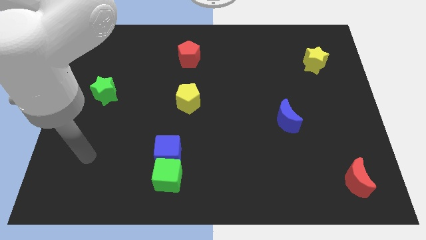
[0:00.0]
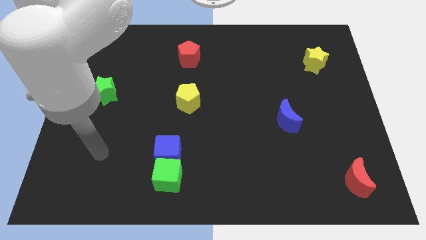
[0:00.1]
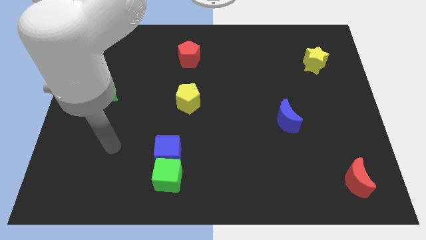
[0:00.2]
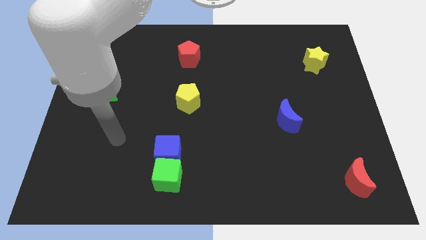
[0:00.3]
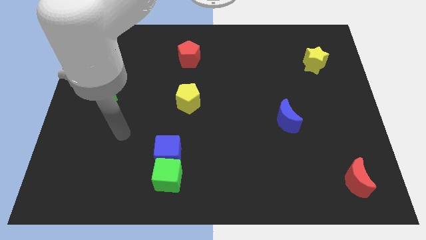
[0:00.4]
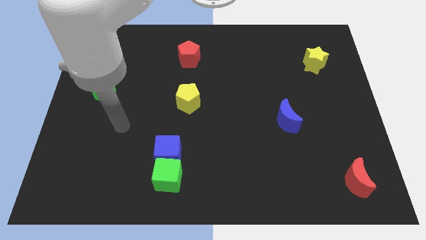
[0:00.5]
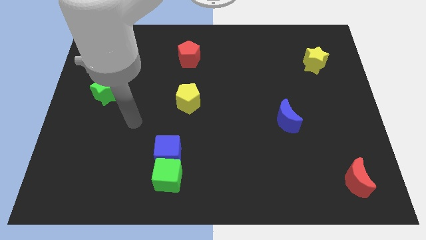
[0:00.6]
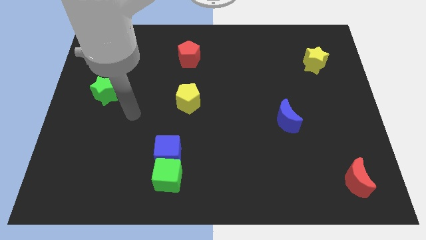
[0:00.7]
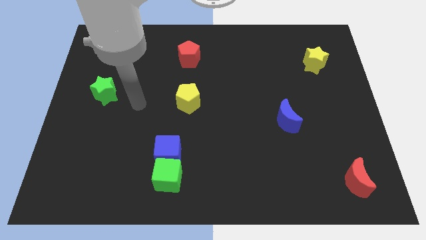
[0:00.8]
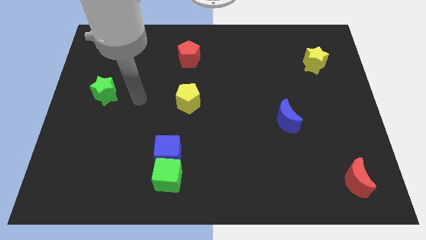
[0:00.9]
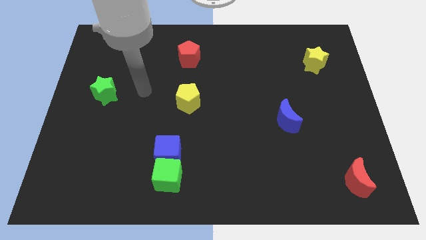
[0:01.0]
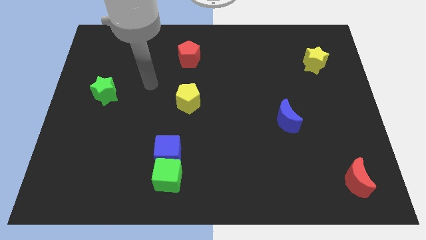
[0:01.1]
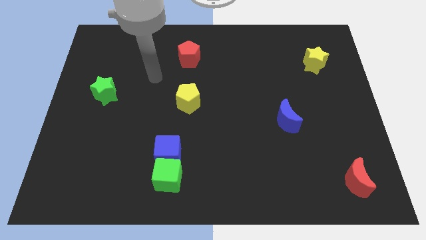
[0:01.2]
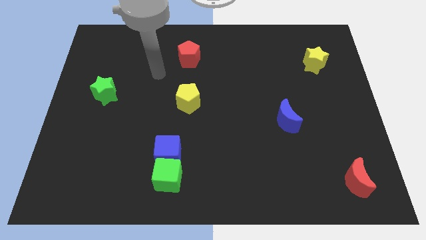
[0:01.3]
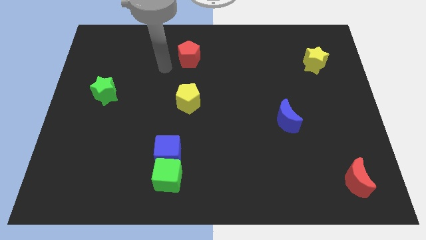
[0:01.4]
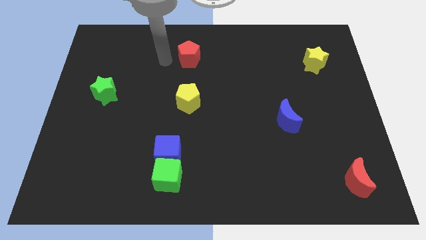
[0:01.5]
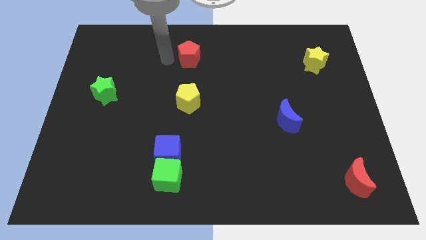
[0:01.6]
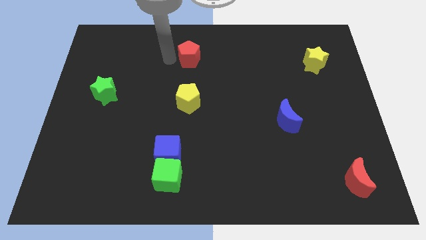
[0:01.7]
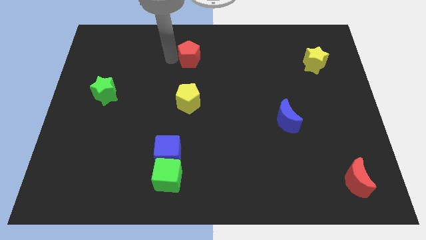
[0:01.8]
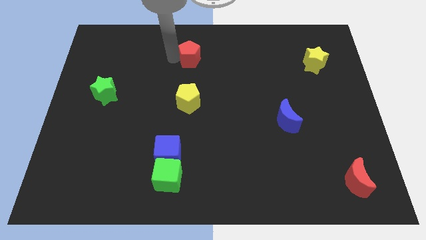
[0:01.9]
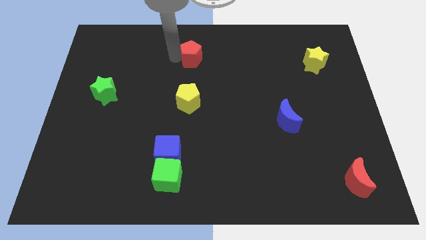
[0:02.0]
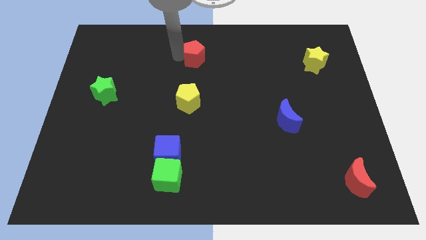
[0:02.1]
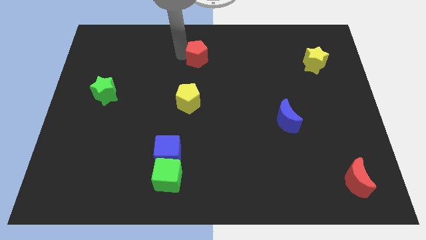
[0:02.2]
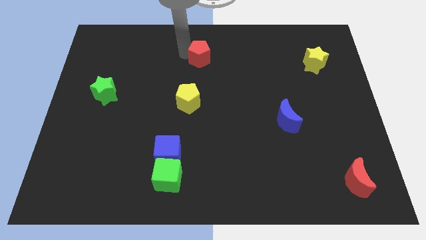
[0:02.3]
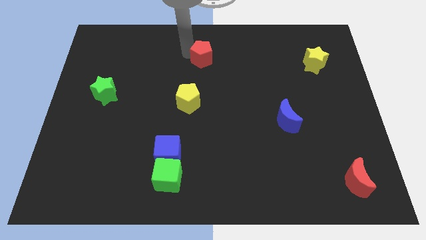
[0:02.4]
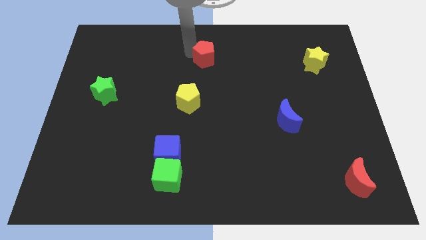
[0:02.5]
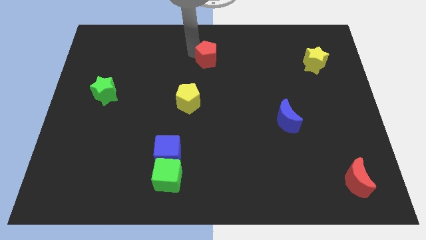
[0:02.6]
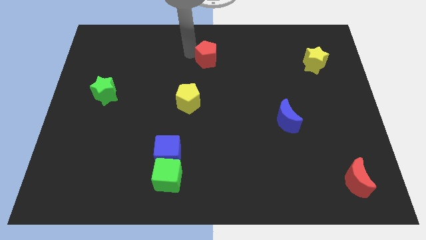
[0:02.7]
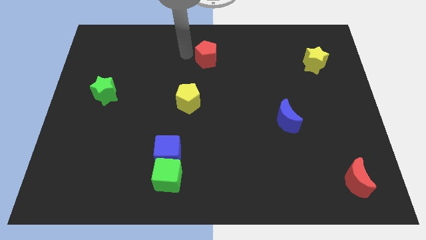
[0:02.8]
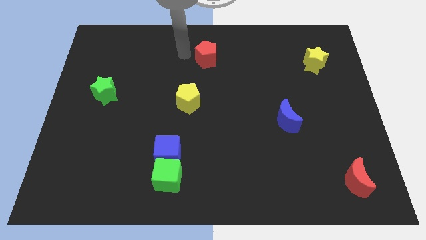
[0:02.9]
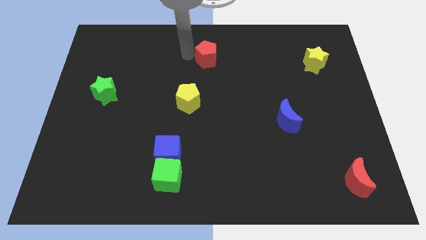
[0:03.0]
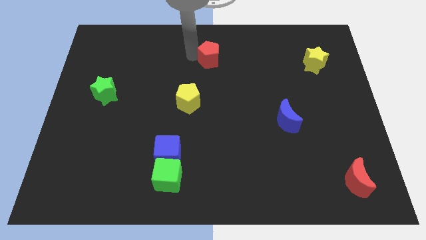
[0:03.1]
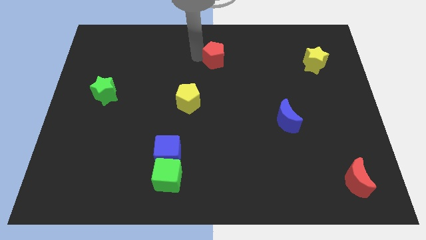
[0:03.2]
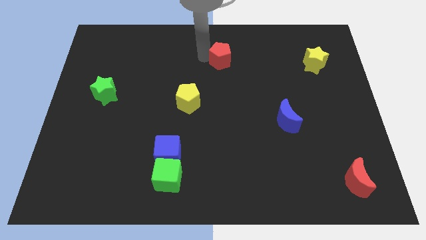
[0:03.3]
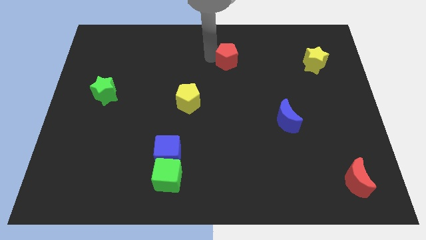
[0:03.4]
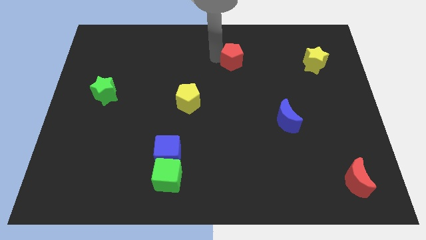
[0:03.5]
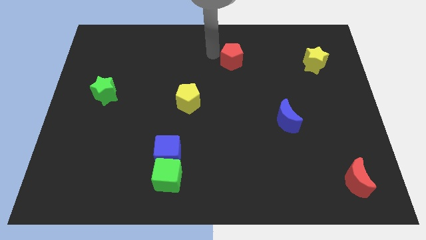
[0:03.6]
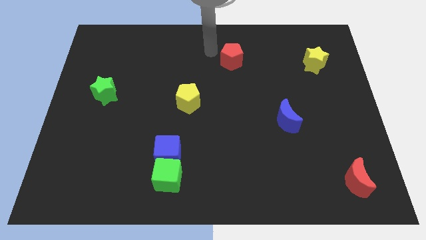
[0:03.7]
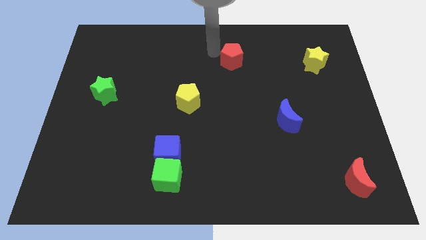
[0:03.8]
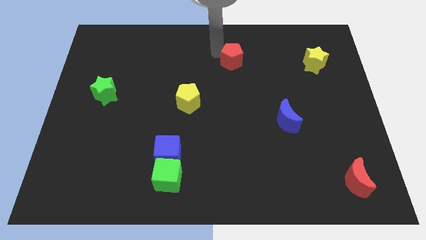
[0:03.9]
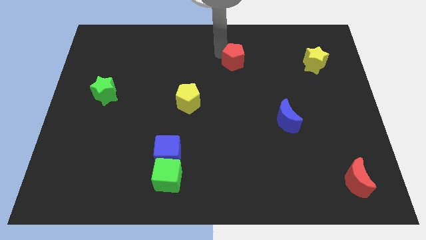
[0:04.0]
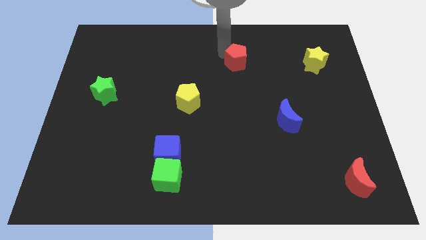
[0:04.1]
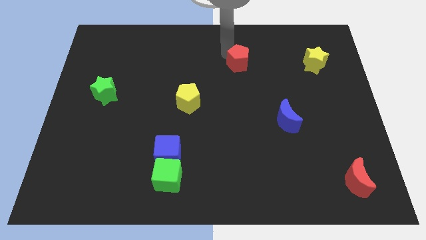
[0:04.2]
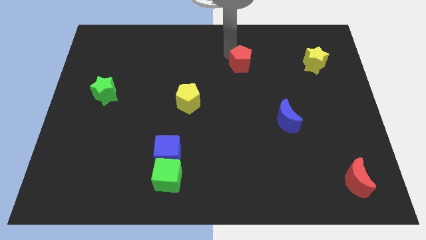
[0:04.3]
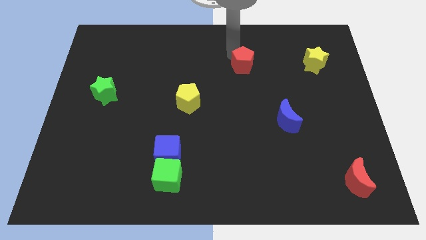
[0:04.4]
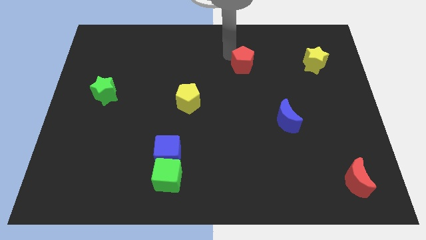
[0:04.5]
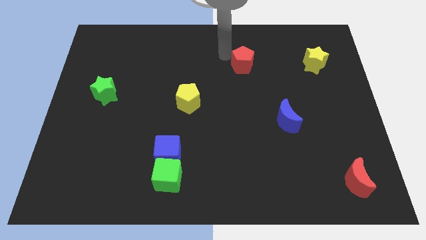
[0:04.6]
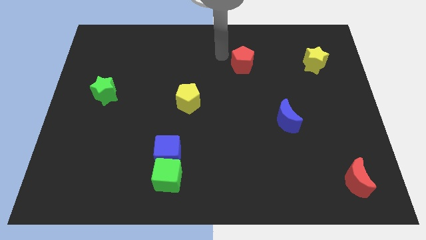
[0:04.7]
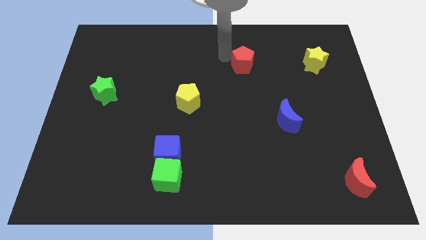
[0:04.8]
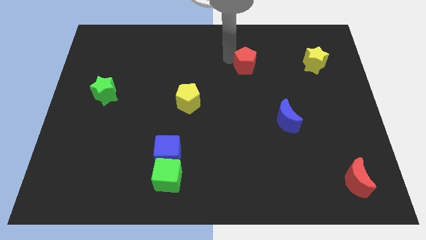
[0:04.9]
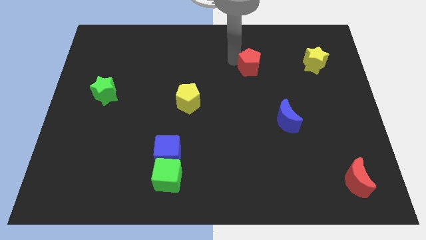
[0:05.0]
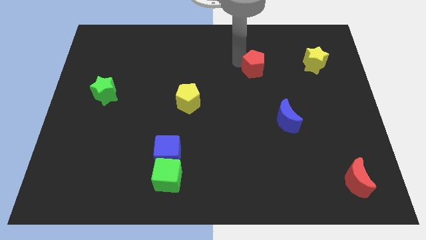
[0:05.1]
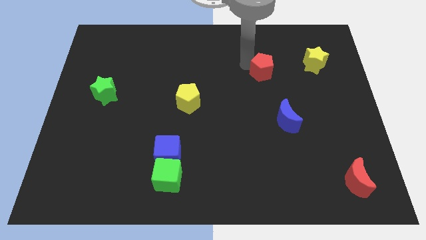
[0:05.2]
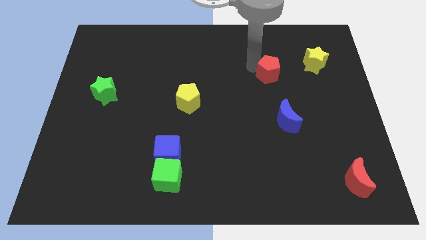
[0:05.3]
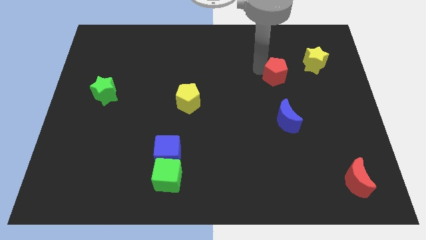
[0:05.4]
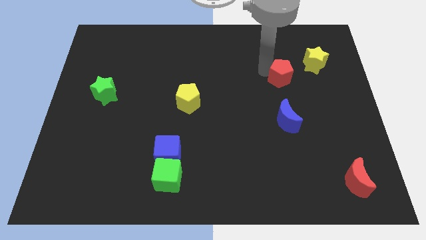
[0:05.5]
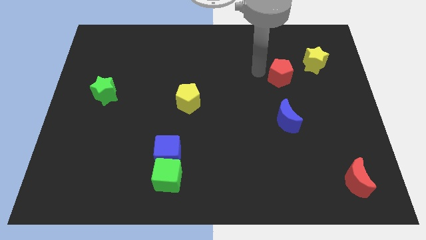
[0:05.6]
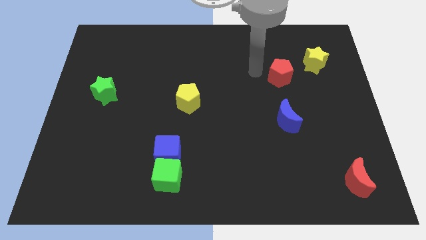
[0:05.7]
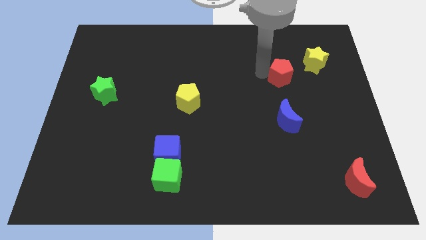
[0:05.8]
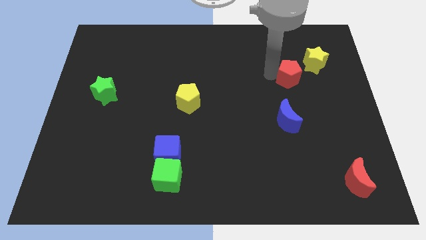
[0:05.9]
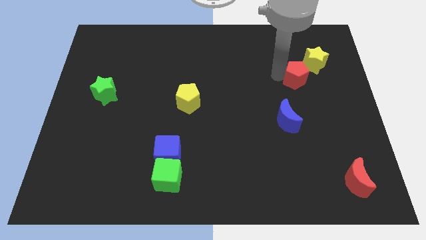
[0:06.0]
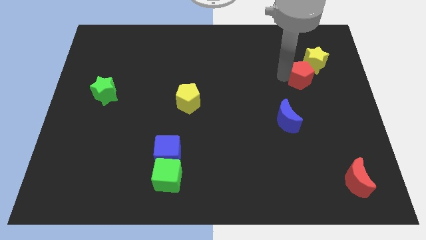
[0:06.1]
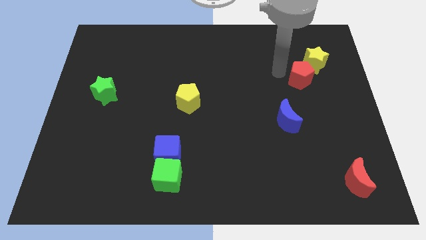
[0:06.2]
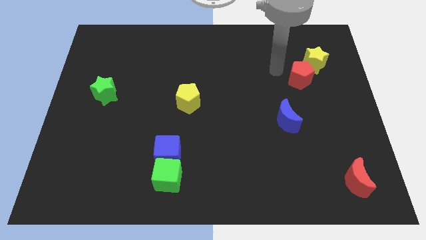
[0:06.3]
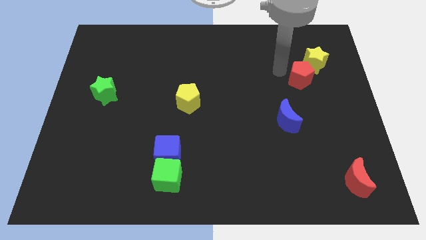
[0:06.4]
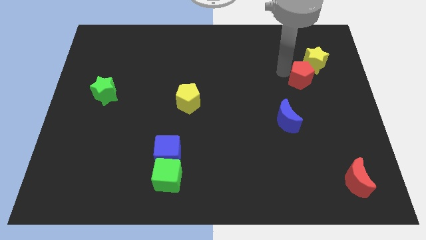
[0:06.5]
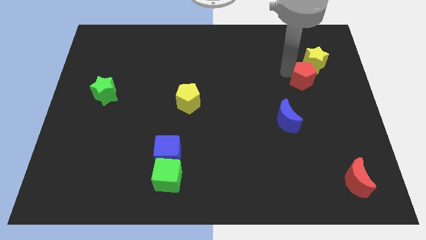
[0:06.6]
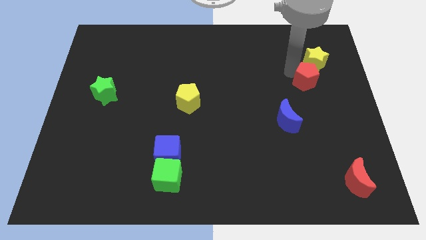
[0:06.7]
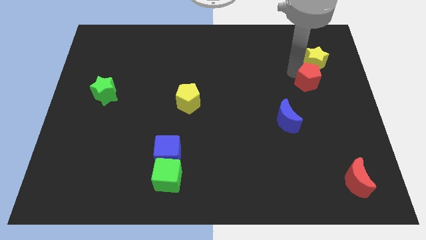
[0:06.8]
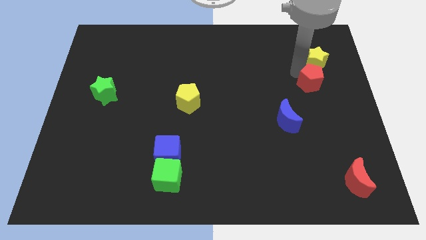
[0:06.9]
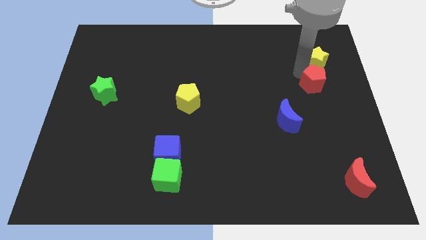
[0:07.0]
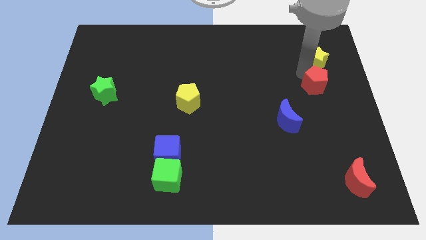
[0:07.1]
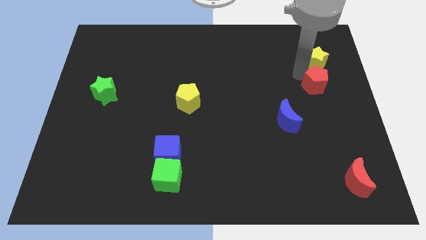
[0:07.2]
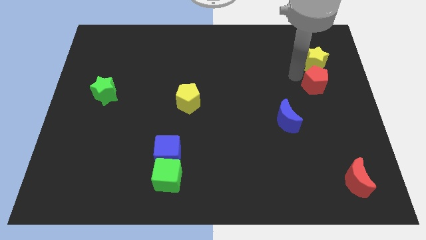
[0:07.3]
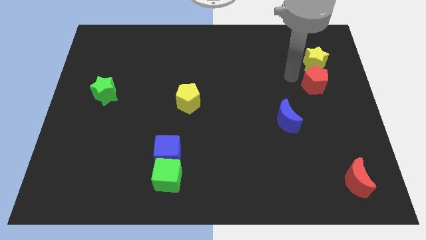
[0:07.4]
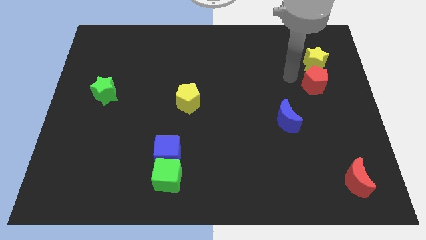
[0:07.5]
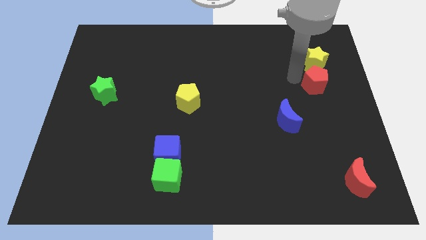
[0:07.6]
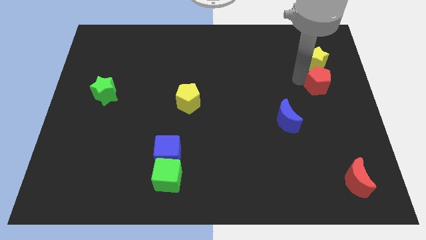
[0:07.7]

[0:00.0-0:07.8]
put the red pentagon to the right side
